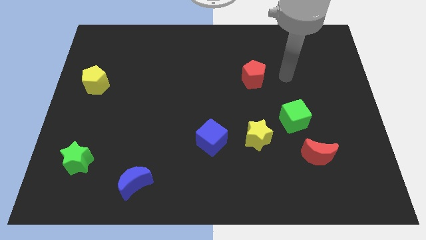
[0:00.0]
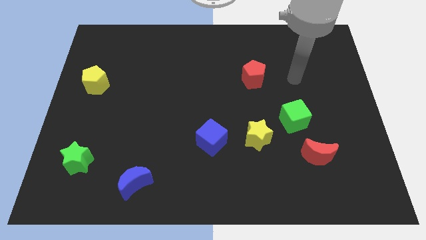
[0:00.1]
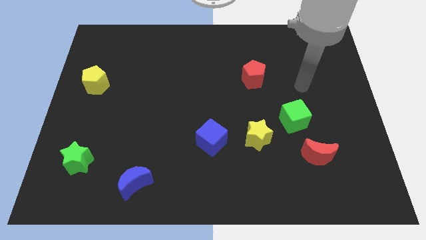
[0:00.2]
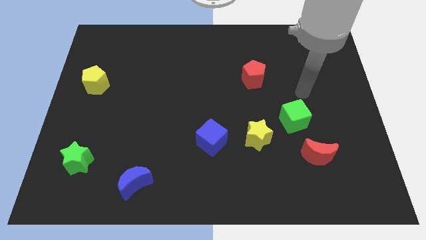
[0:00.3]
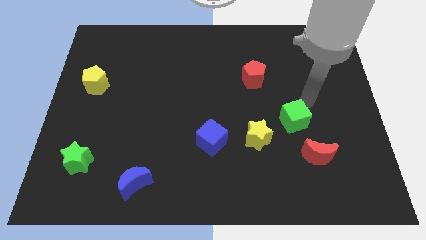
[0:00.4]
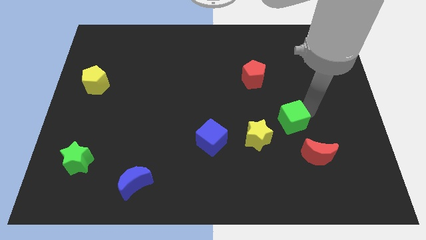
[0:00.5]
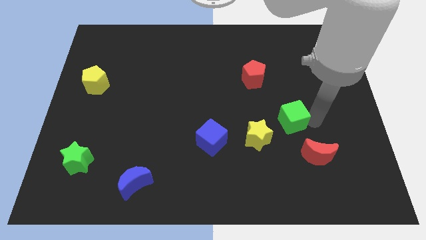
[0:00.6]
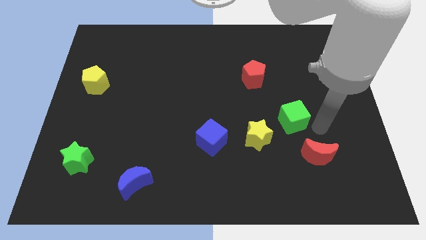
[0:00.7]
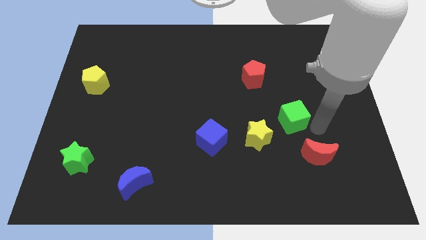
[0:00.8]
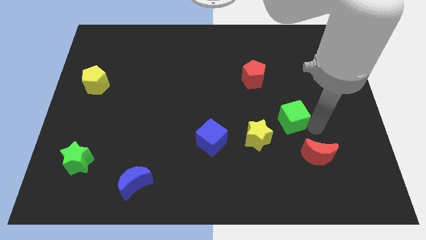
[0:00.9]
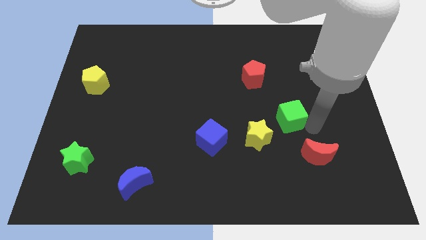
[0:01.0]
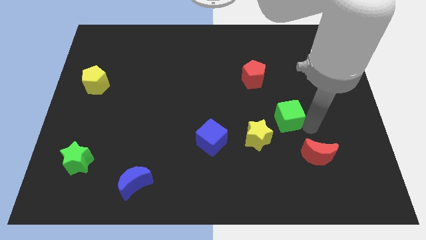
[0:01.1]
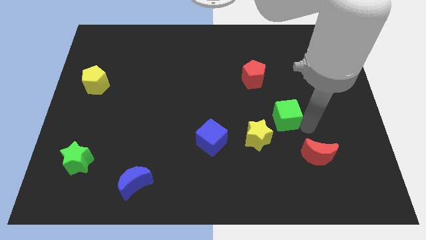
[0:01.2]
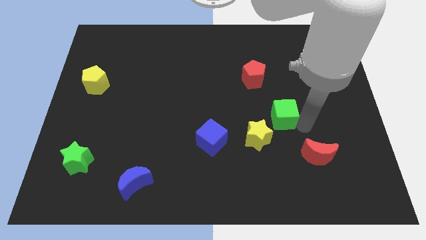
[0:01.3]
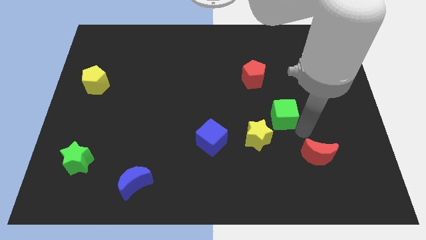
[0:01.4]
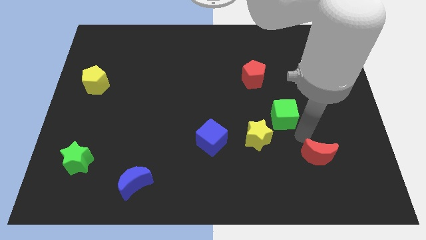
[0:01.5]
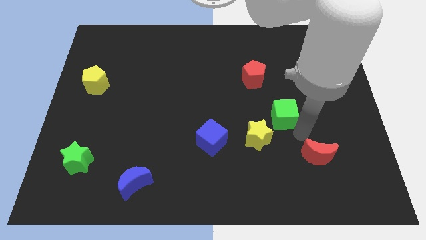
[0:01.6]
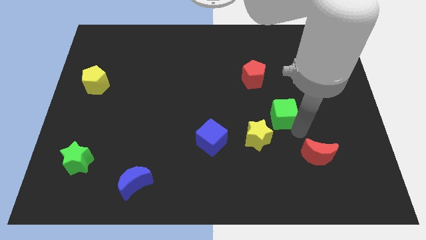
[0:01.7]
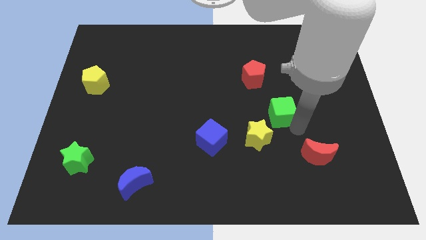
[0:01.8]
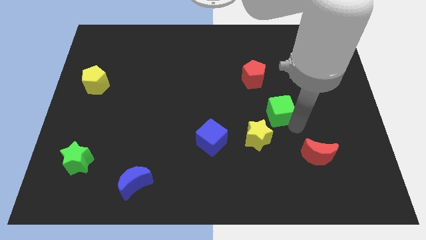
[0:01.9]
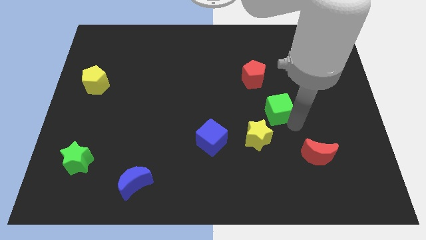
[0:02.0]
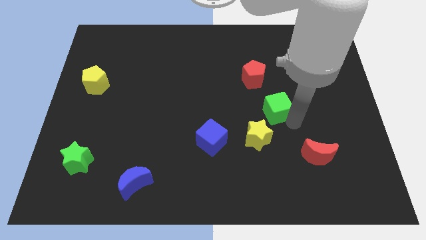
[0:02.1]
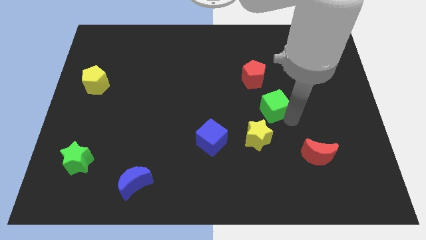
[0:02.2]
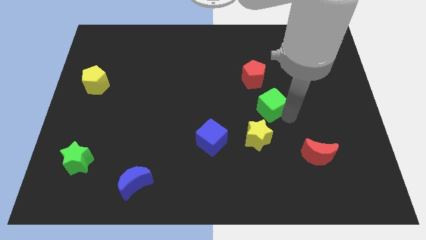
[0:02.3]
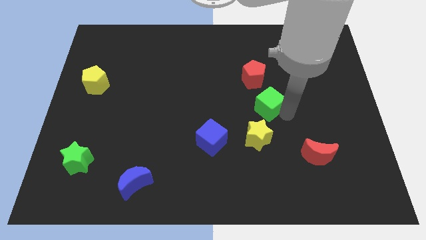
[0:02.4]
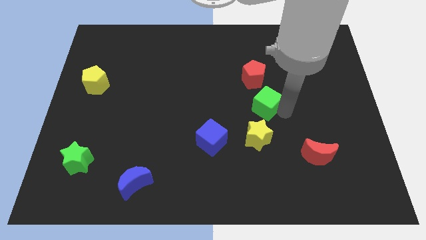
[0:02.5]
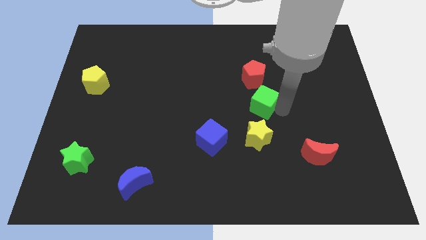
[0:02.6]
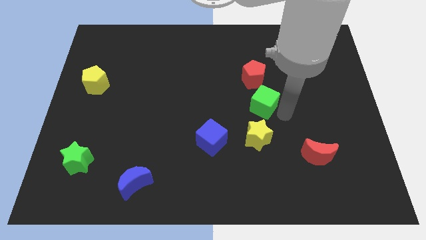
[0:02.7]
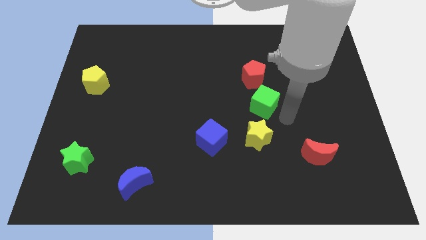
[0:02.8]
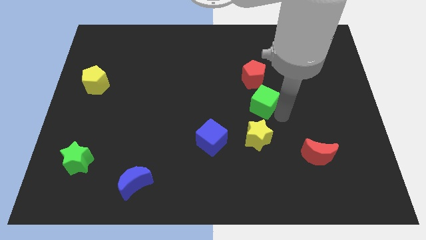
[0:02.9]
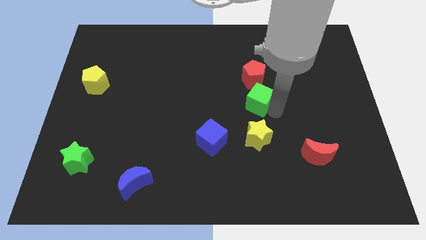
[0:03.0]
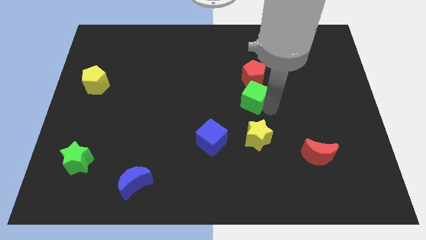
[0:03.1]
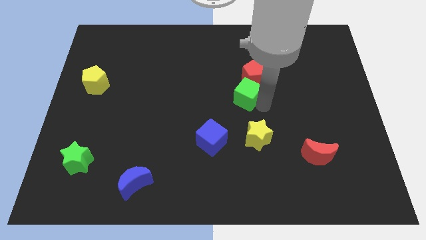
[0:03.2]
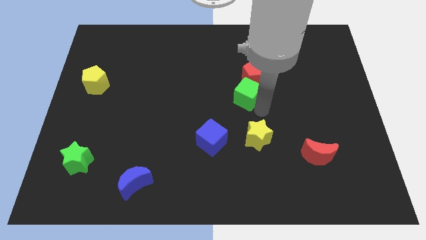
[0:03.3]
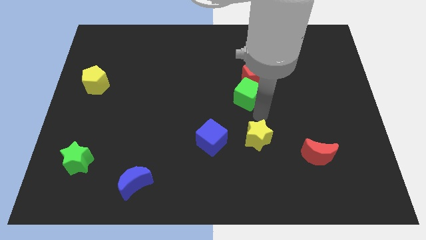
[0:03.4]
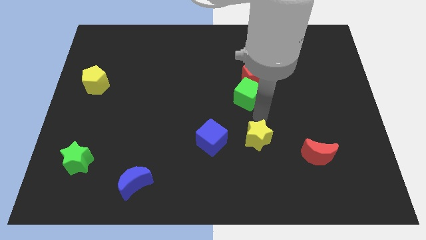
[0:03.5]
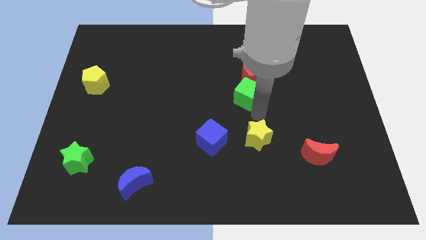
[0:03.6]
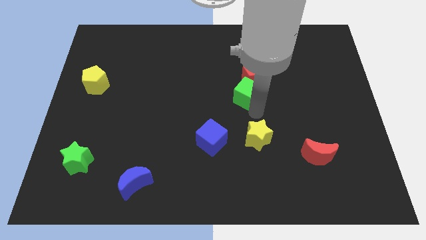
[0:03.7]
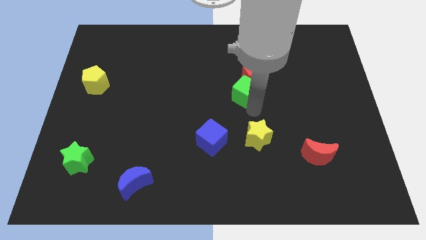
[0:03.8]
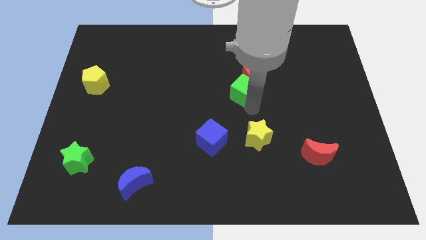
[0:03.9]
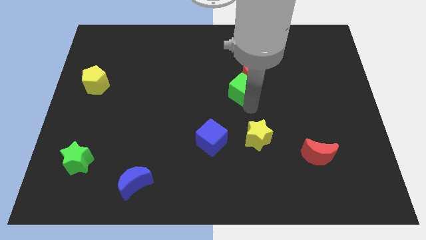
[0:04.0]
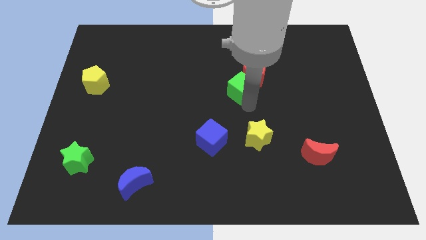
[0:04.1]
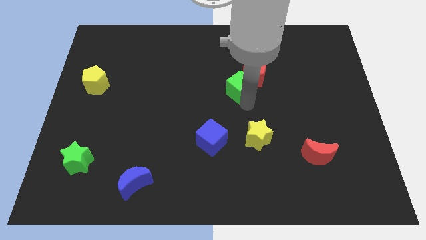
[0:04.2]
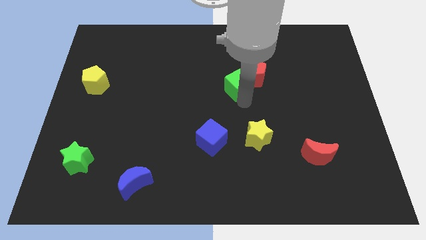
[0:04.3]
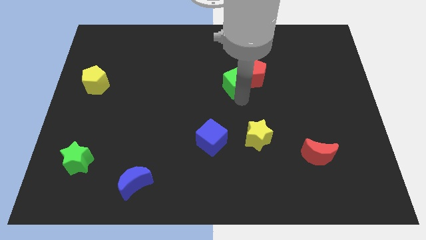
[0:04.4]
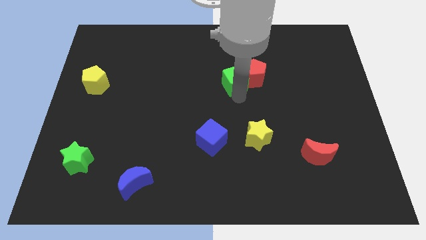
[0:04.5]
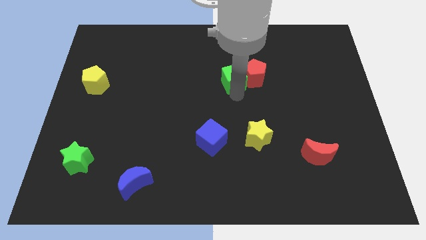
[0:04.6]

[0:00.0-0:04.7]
move the green cube diagonally up and to the left of the red pentagon

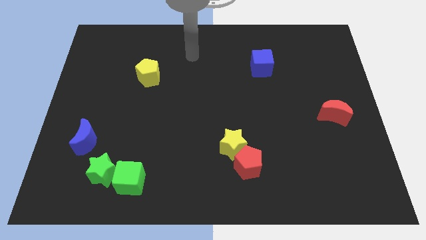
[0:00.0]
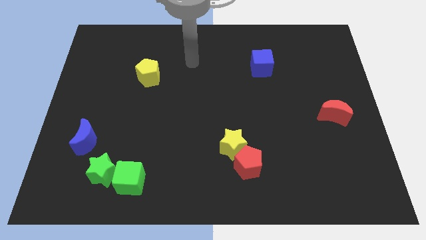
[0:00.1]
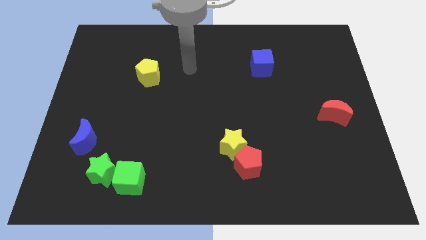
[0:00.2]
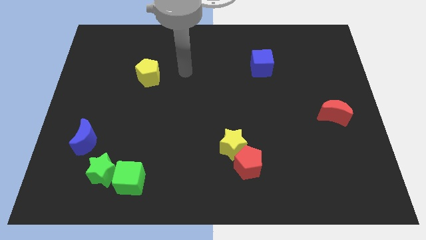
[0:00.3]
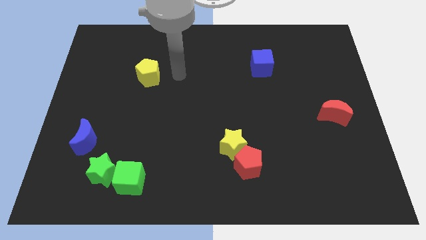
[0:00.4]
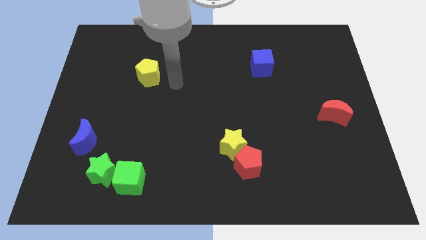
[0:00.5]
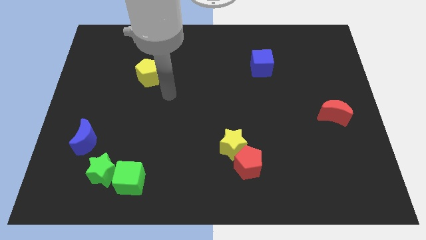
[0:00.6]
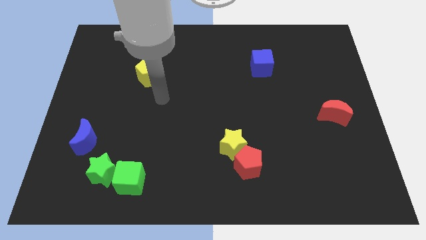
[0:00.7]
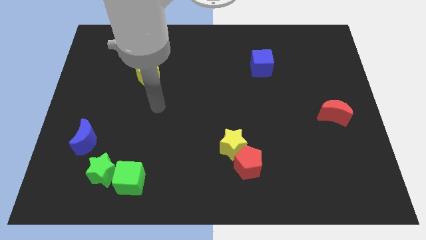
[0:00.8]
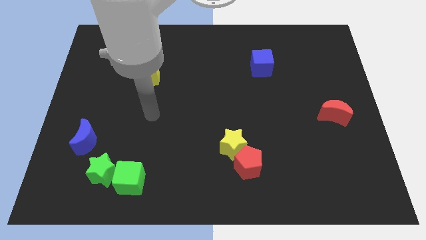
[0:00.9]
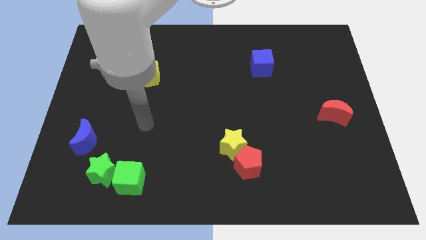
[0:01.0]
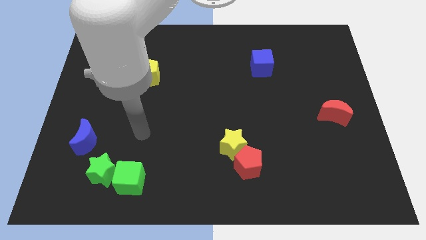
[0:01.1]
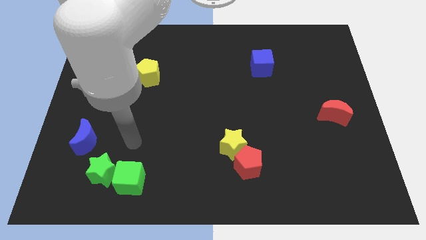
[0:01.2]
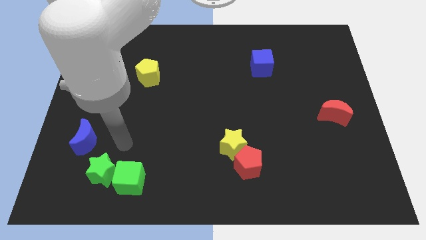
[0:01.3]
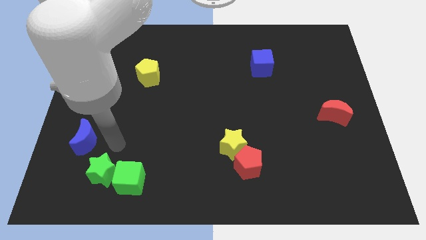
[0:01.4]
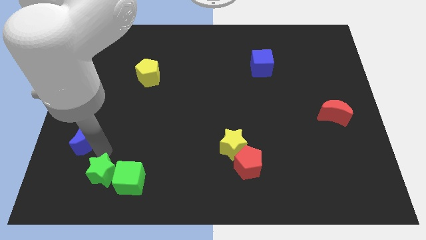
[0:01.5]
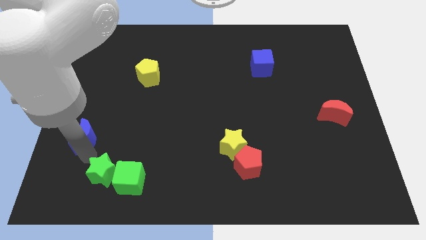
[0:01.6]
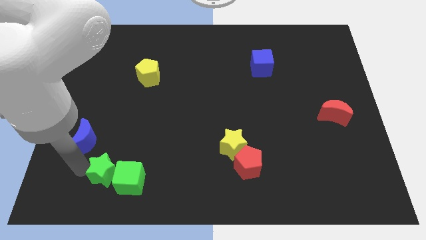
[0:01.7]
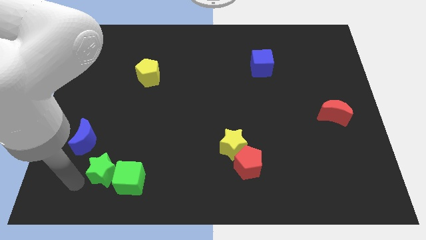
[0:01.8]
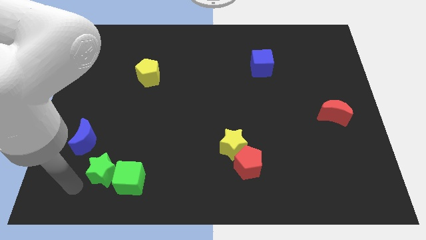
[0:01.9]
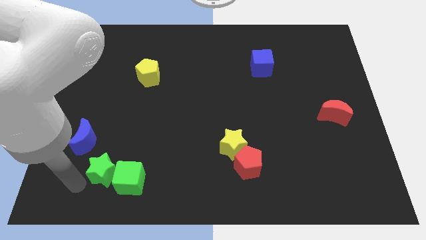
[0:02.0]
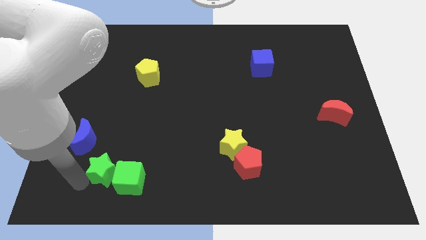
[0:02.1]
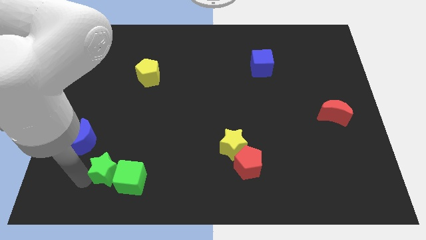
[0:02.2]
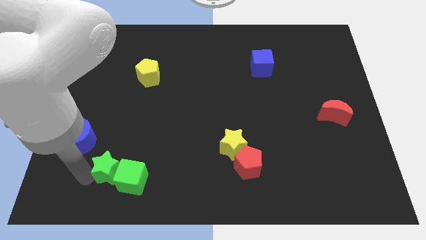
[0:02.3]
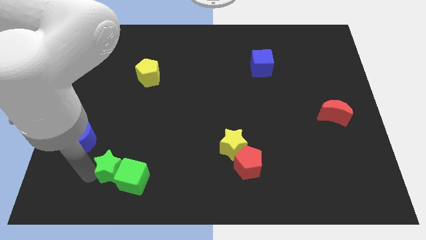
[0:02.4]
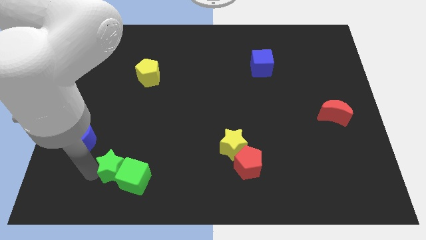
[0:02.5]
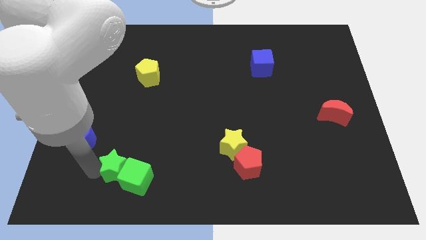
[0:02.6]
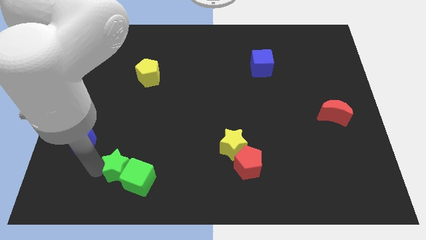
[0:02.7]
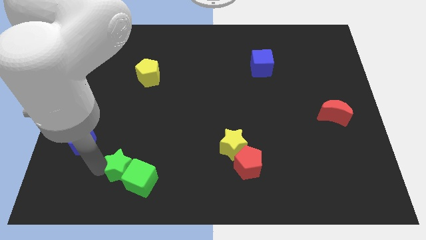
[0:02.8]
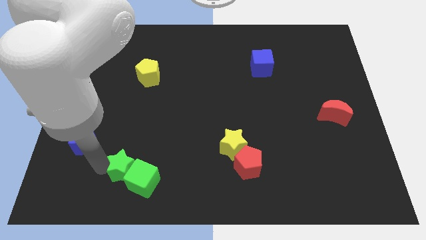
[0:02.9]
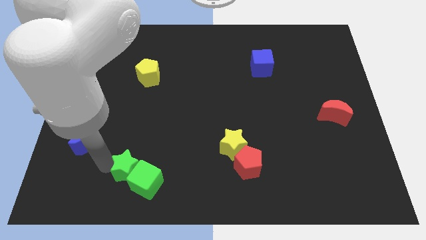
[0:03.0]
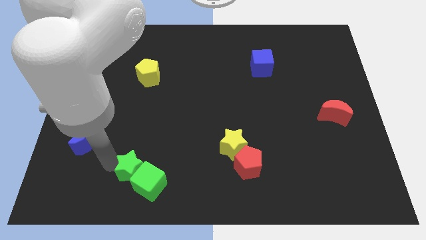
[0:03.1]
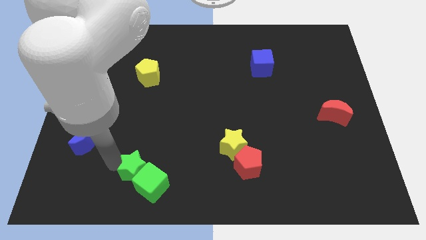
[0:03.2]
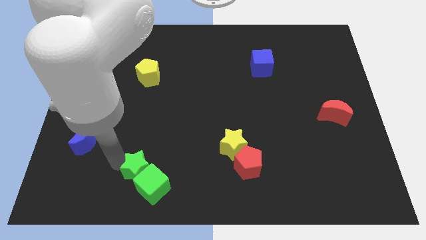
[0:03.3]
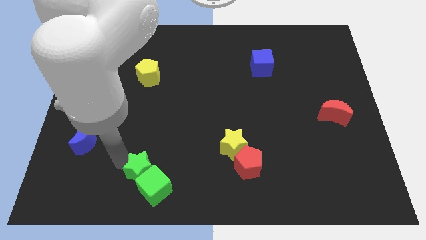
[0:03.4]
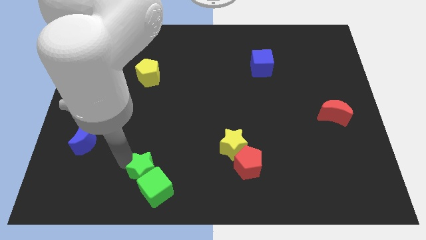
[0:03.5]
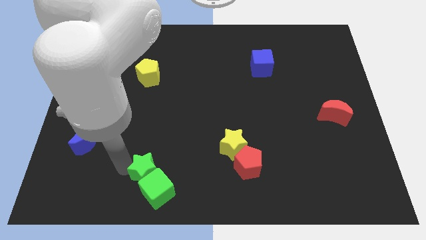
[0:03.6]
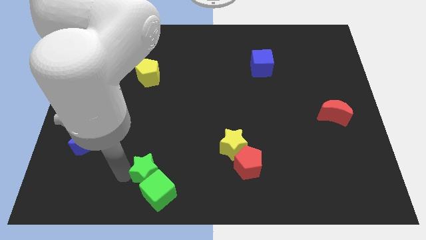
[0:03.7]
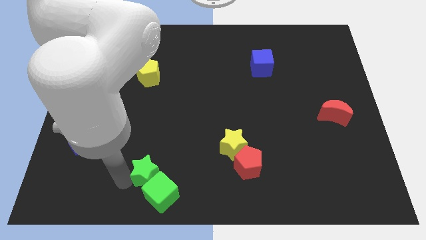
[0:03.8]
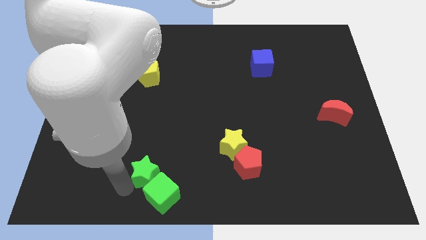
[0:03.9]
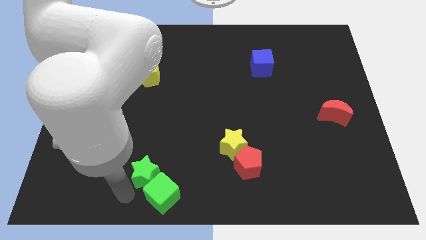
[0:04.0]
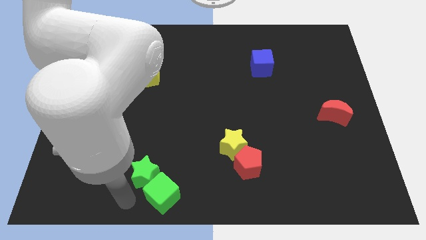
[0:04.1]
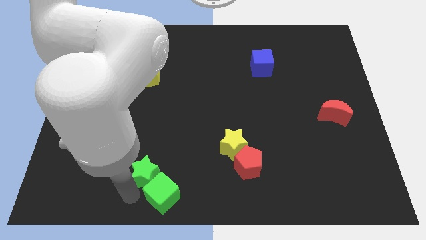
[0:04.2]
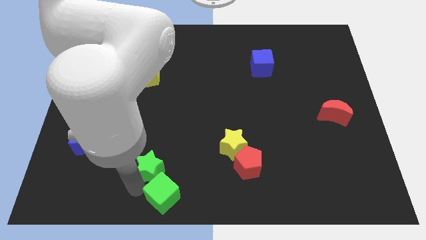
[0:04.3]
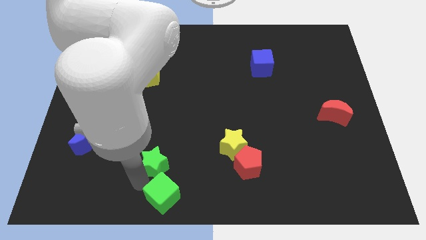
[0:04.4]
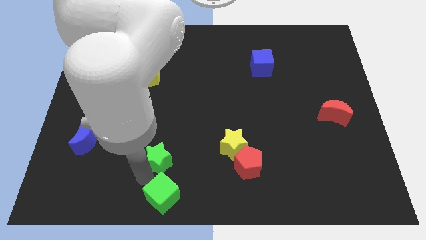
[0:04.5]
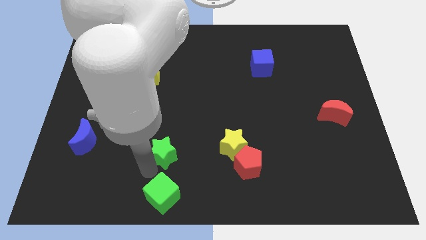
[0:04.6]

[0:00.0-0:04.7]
slide the green star to the left side of the yellow star
